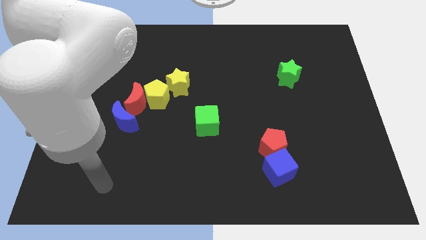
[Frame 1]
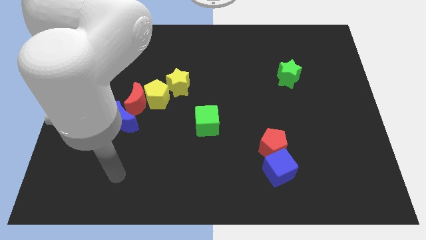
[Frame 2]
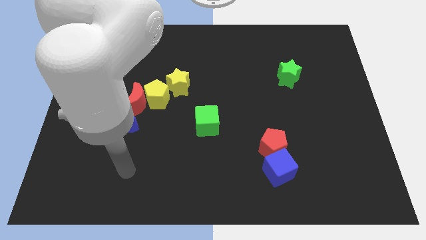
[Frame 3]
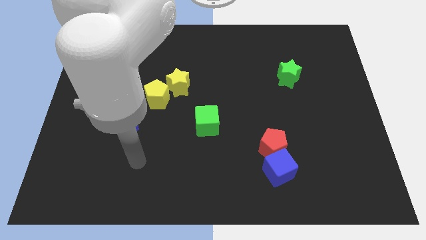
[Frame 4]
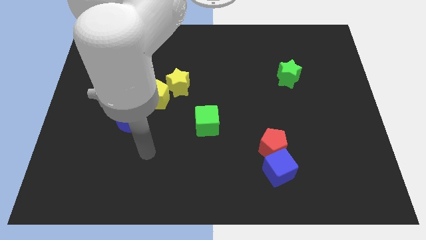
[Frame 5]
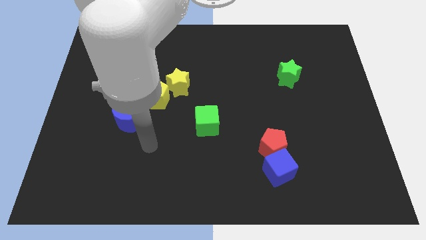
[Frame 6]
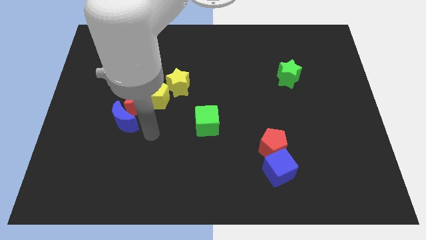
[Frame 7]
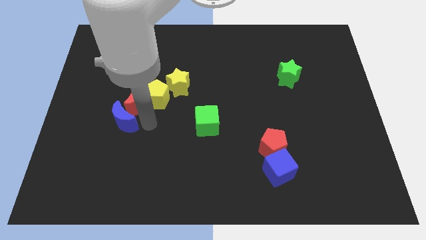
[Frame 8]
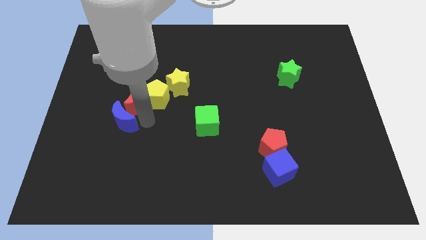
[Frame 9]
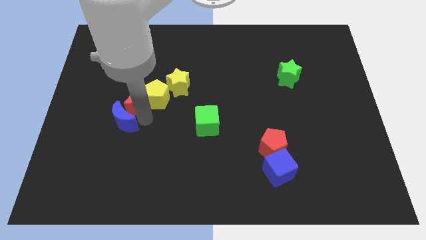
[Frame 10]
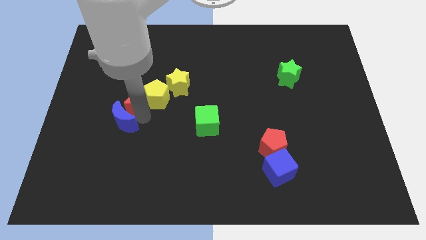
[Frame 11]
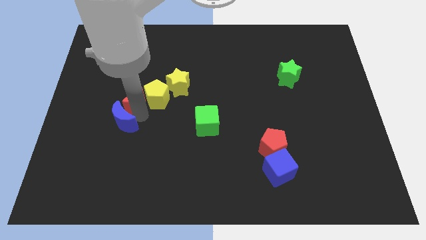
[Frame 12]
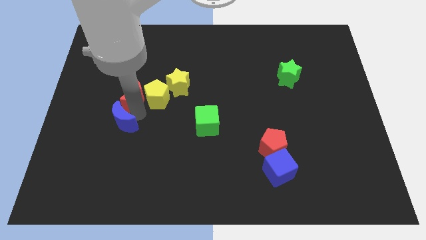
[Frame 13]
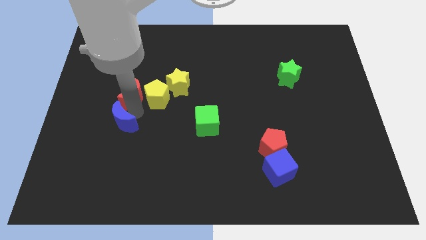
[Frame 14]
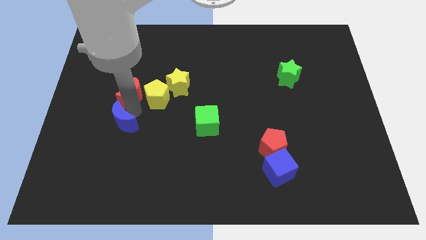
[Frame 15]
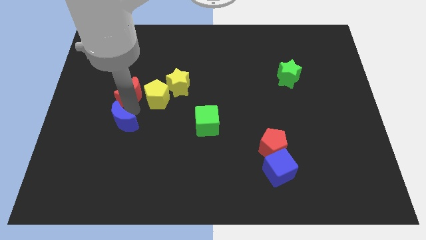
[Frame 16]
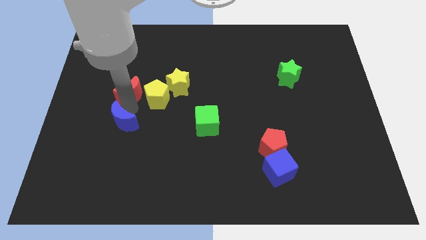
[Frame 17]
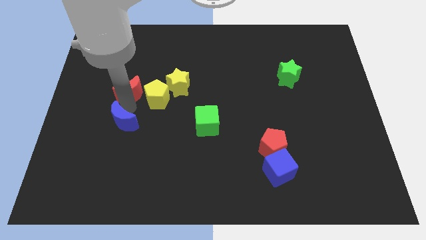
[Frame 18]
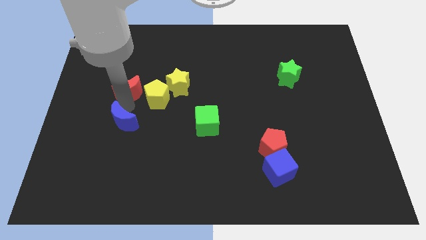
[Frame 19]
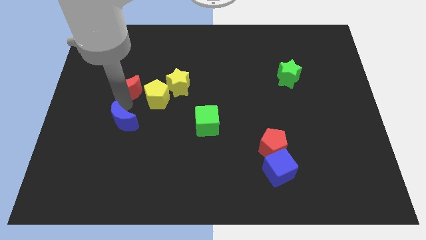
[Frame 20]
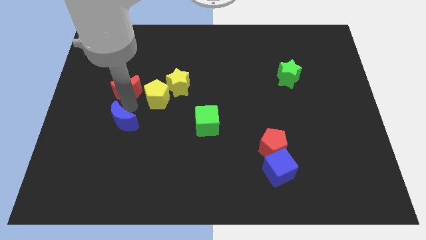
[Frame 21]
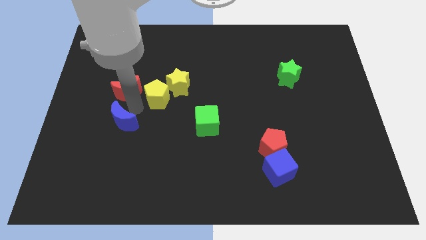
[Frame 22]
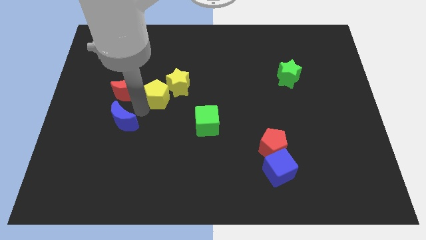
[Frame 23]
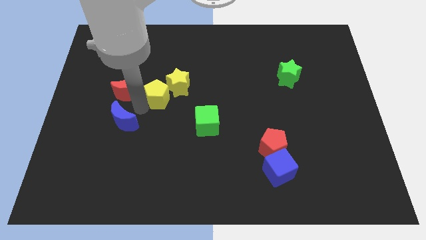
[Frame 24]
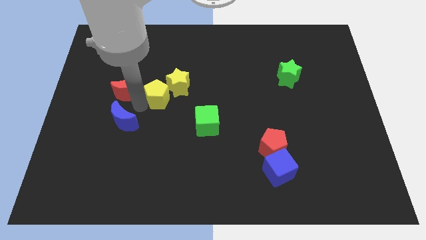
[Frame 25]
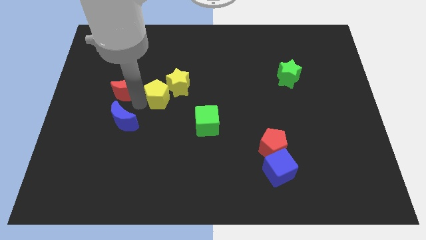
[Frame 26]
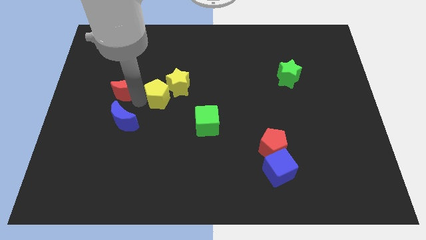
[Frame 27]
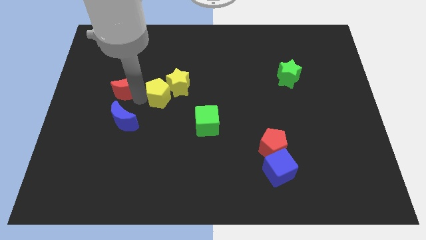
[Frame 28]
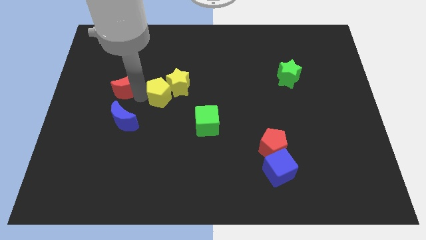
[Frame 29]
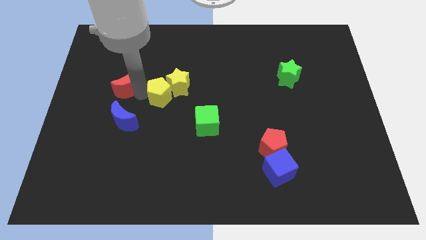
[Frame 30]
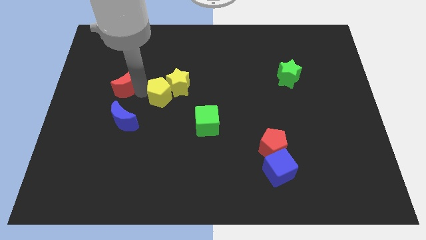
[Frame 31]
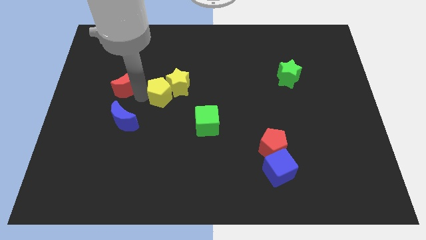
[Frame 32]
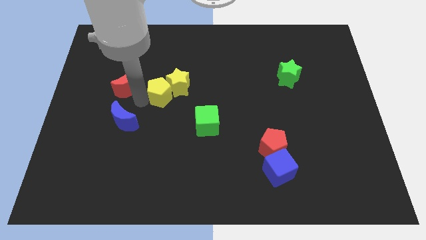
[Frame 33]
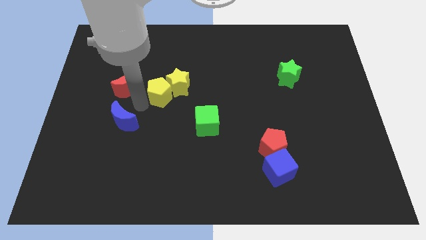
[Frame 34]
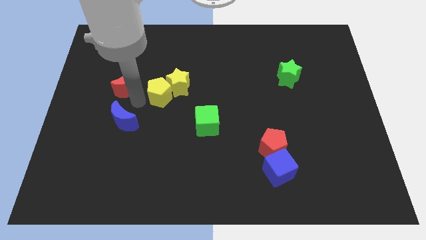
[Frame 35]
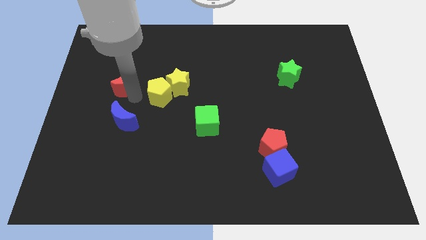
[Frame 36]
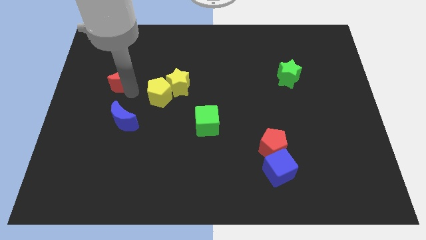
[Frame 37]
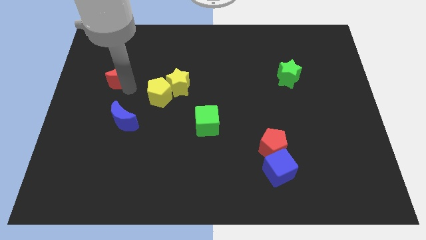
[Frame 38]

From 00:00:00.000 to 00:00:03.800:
pull the red moon apart from the yellow pentagon and blue moon

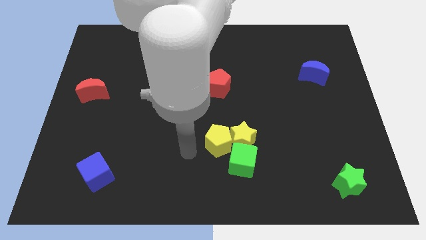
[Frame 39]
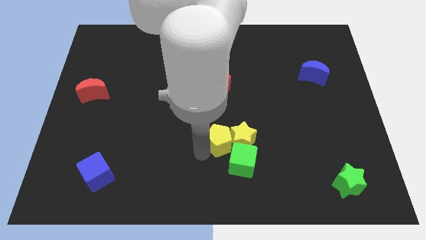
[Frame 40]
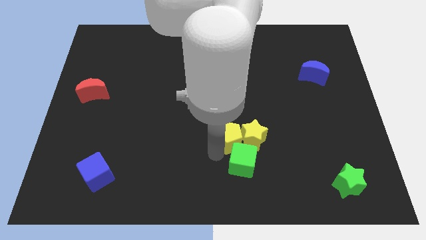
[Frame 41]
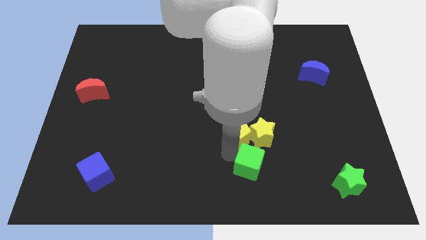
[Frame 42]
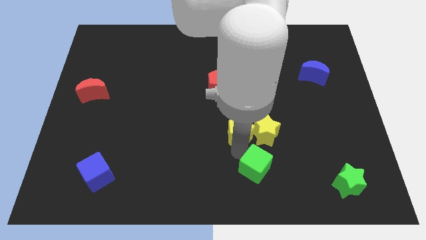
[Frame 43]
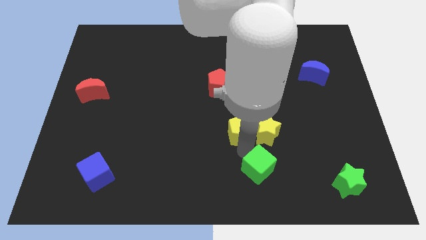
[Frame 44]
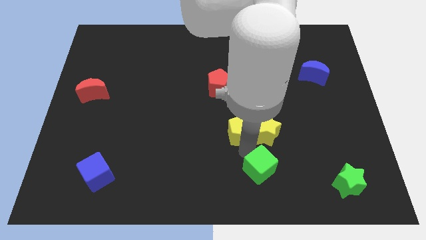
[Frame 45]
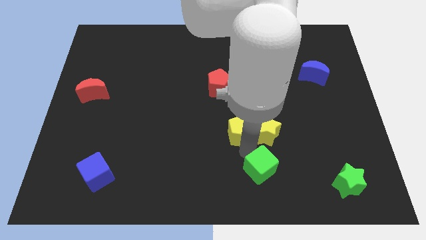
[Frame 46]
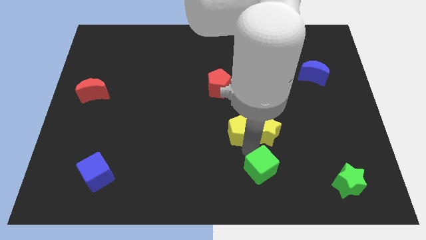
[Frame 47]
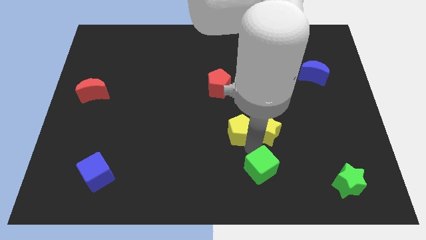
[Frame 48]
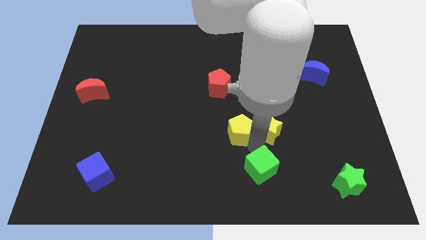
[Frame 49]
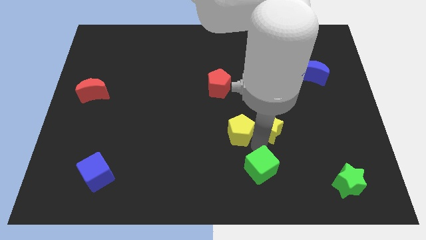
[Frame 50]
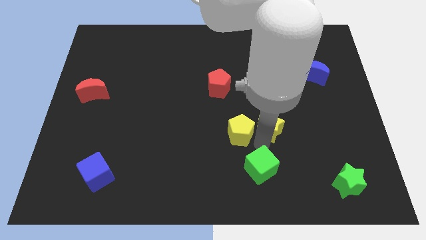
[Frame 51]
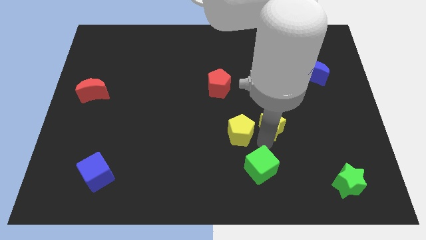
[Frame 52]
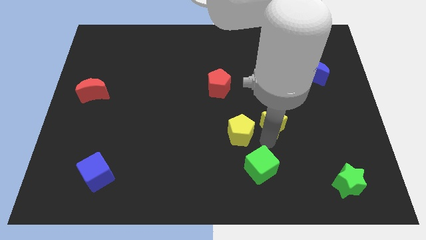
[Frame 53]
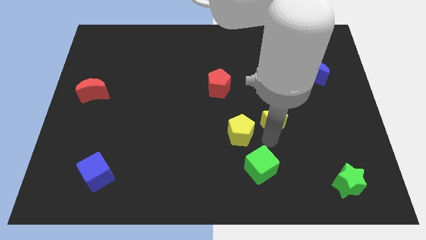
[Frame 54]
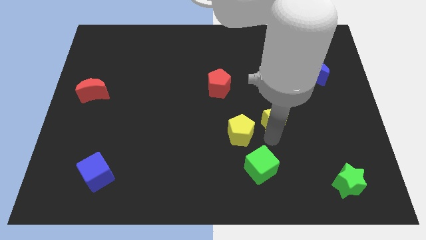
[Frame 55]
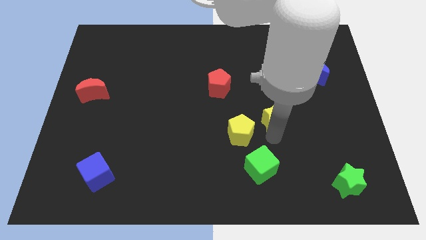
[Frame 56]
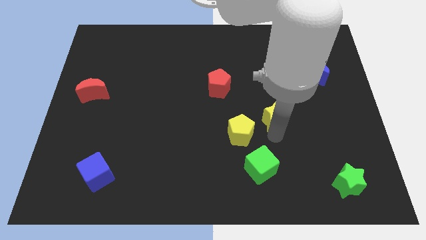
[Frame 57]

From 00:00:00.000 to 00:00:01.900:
separate the yellow star from the green cube and yellow pentagon

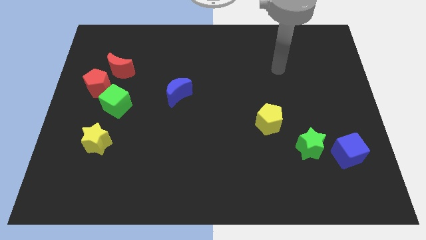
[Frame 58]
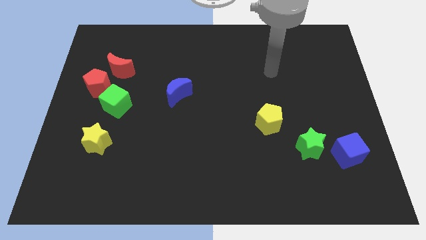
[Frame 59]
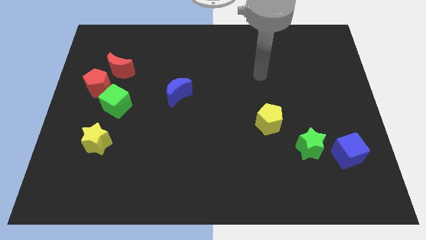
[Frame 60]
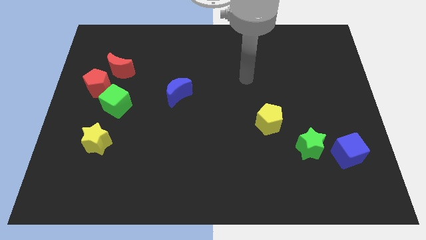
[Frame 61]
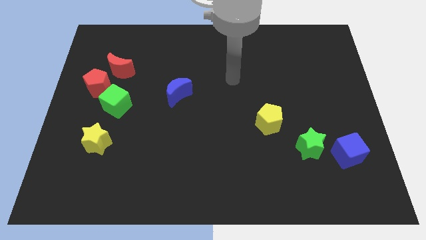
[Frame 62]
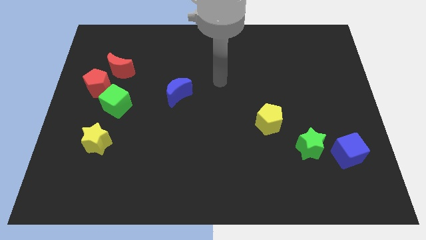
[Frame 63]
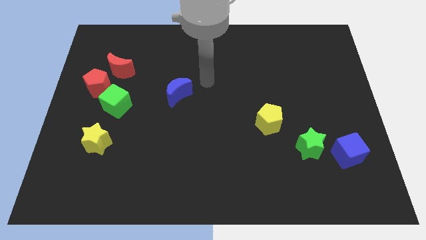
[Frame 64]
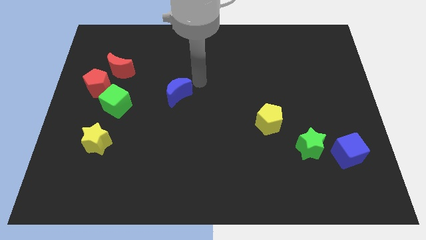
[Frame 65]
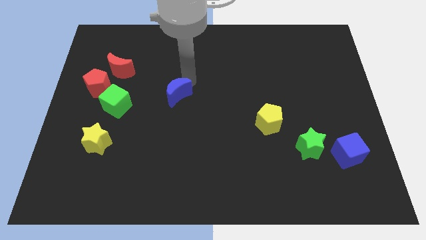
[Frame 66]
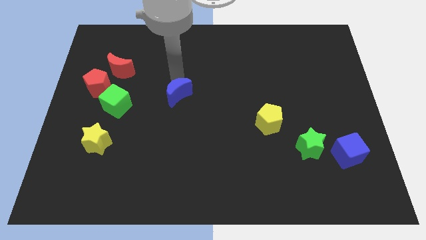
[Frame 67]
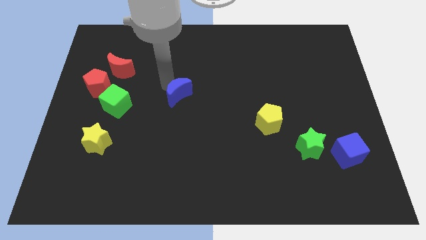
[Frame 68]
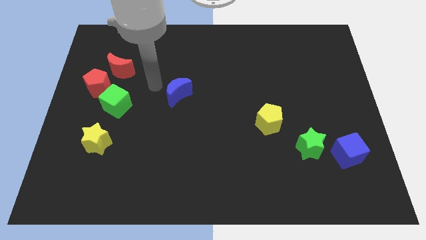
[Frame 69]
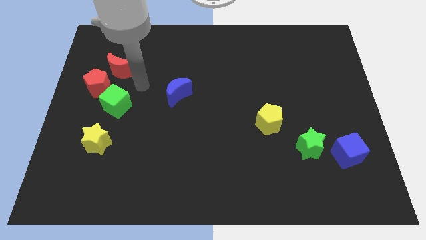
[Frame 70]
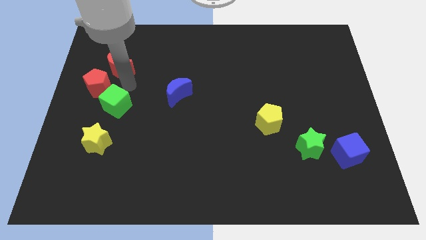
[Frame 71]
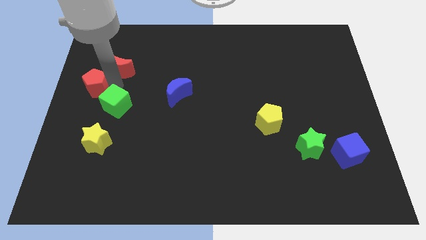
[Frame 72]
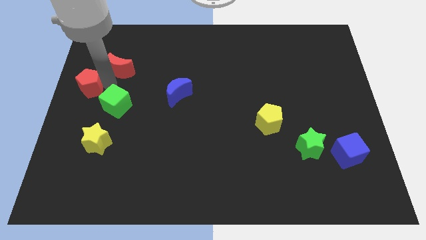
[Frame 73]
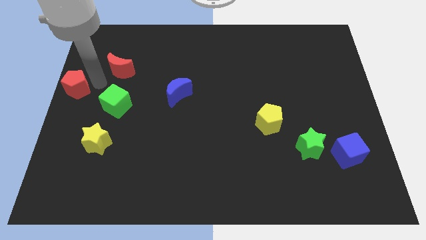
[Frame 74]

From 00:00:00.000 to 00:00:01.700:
move the red moon away from the red pentagon

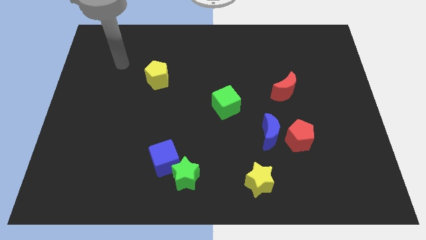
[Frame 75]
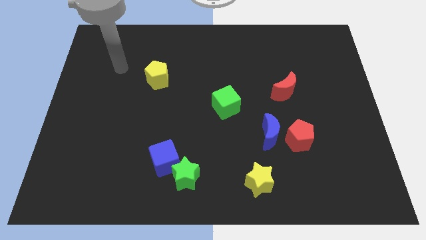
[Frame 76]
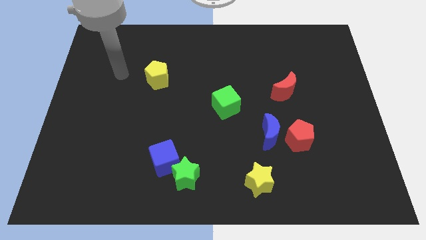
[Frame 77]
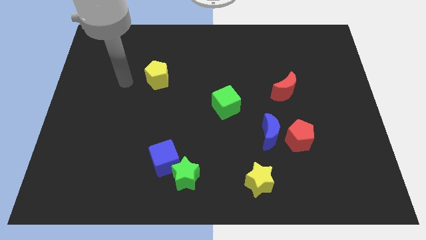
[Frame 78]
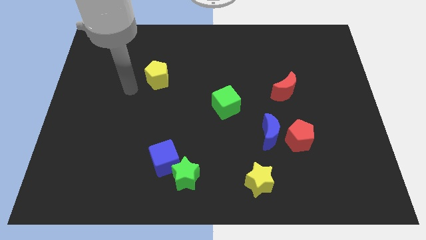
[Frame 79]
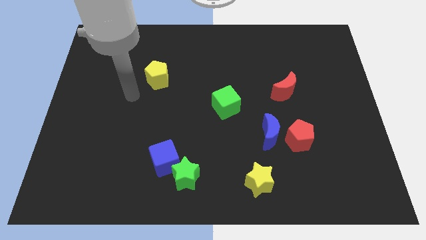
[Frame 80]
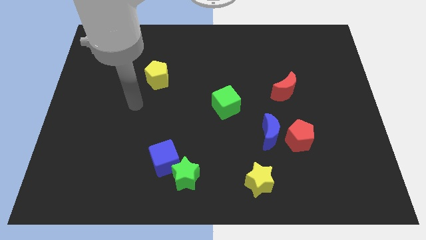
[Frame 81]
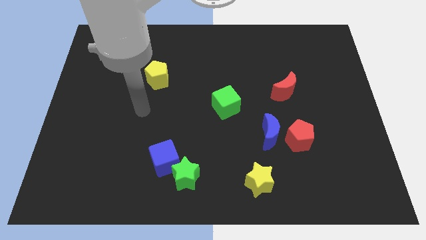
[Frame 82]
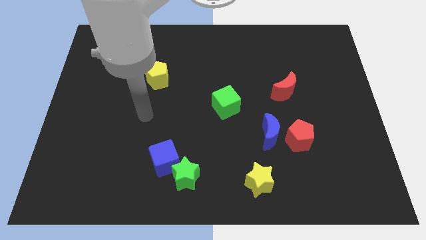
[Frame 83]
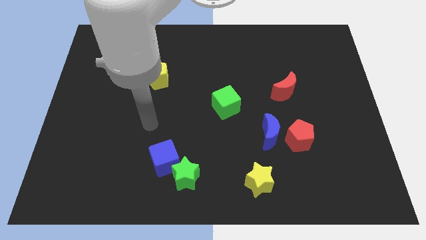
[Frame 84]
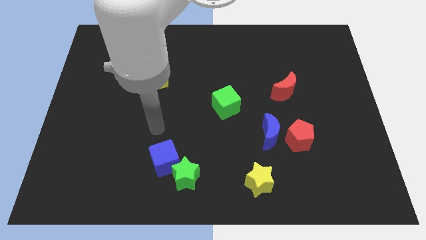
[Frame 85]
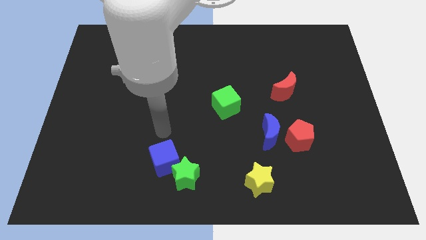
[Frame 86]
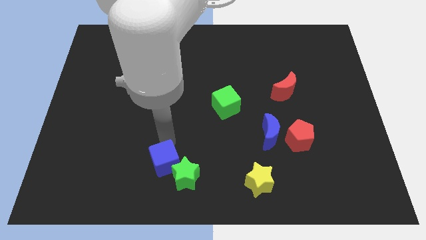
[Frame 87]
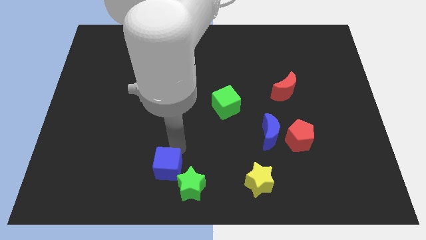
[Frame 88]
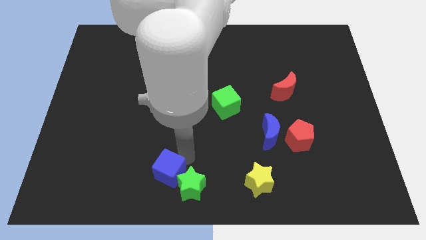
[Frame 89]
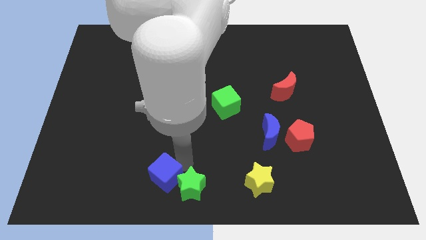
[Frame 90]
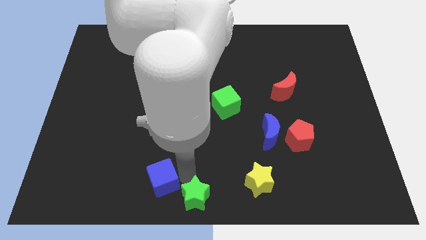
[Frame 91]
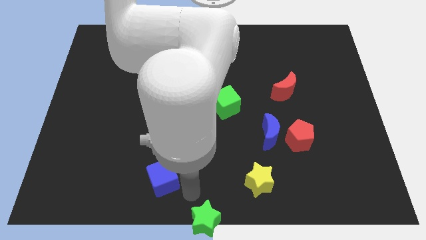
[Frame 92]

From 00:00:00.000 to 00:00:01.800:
pull the blue cube apart from the green star

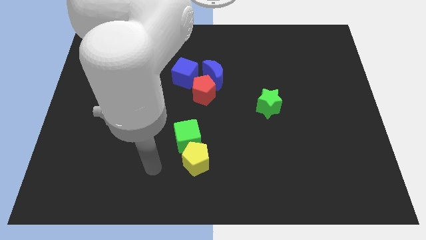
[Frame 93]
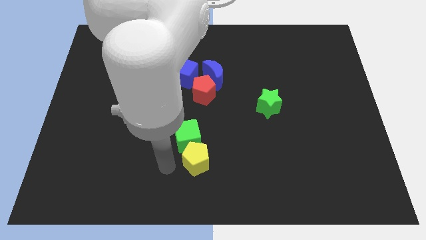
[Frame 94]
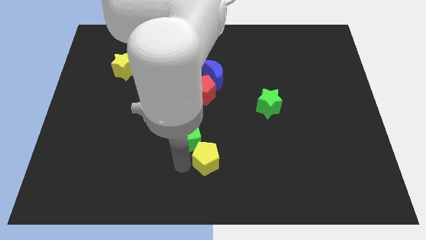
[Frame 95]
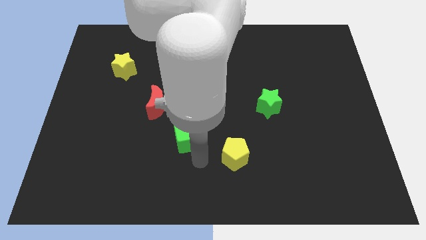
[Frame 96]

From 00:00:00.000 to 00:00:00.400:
move the green cube away from the yellow pentagon
